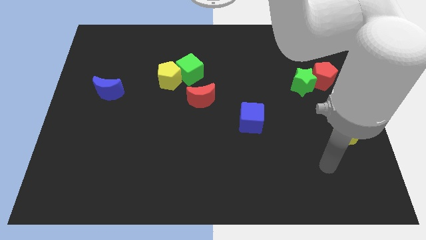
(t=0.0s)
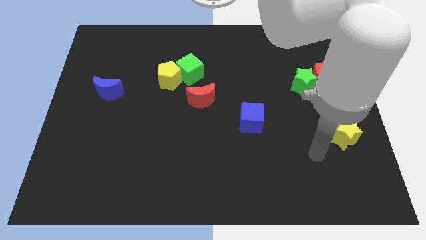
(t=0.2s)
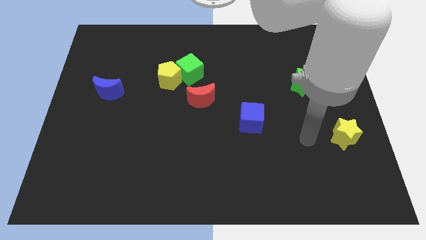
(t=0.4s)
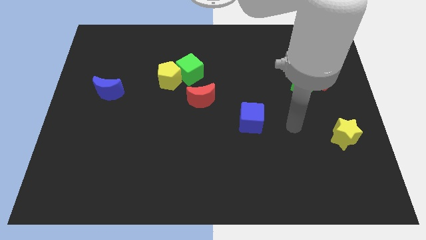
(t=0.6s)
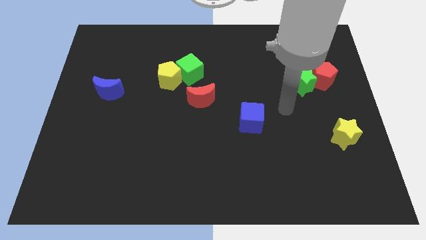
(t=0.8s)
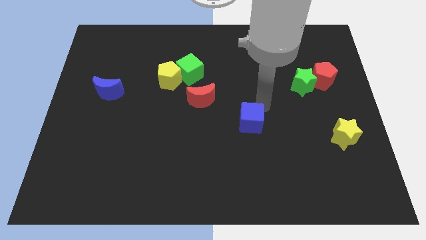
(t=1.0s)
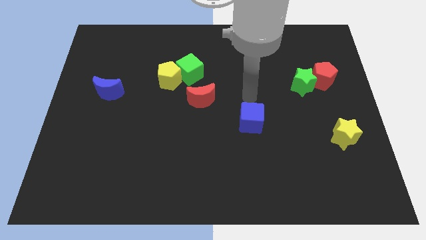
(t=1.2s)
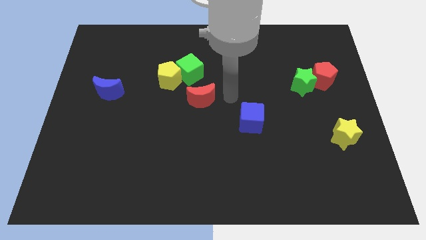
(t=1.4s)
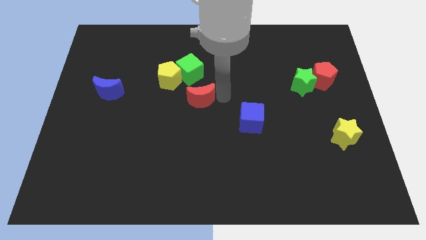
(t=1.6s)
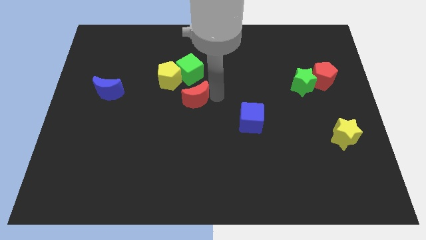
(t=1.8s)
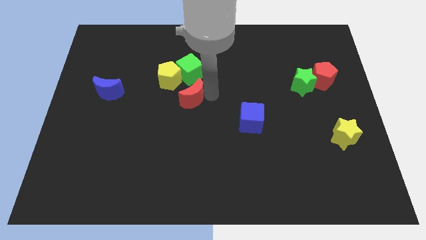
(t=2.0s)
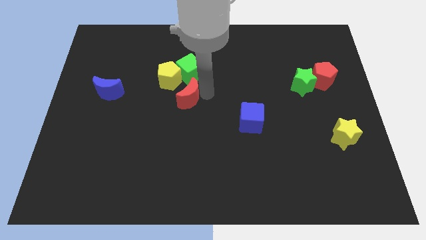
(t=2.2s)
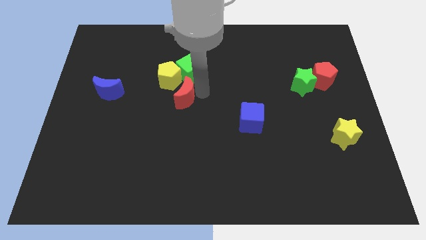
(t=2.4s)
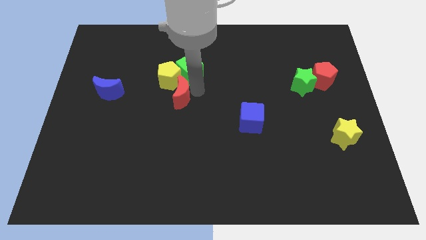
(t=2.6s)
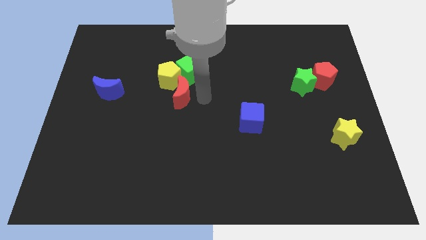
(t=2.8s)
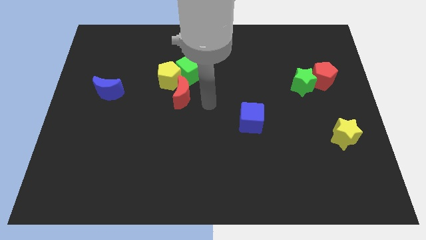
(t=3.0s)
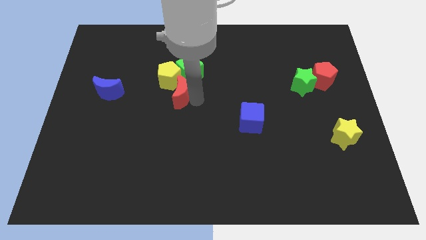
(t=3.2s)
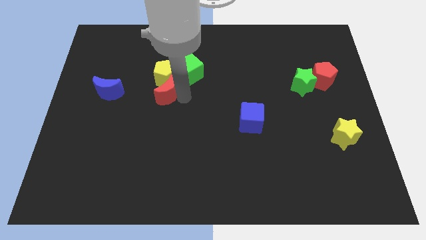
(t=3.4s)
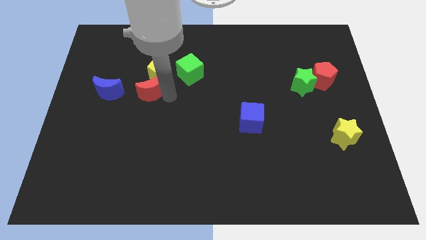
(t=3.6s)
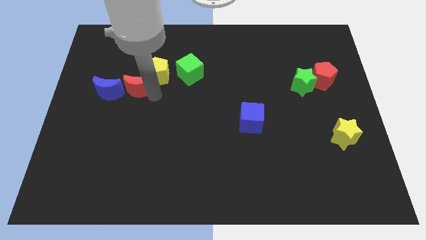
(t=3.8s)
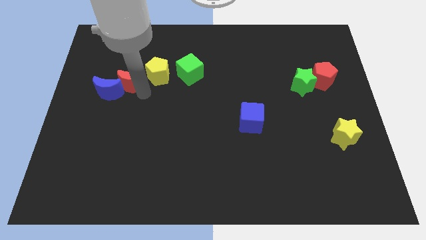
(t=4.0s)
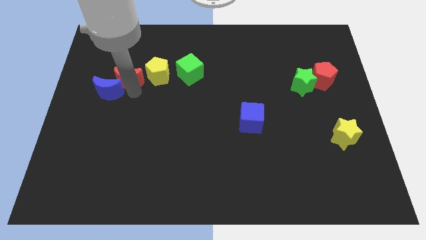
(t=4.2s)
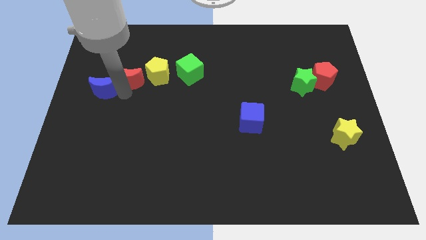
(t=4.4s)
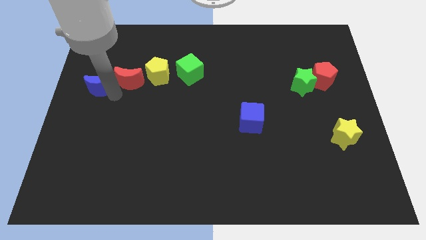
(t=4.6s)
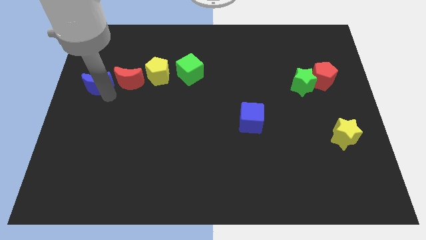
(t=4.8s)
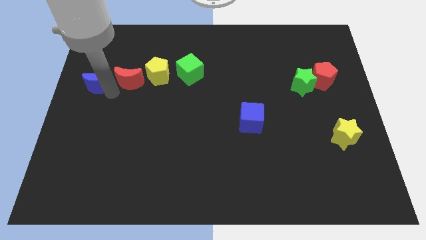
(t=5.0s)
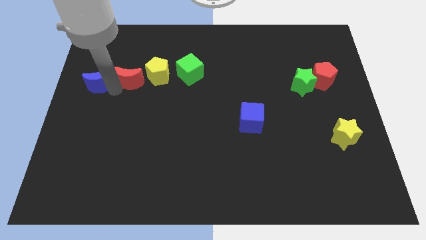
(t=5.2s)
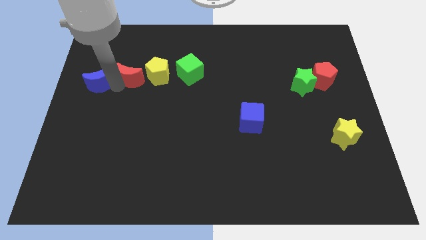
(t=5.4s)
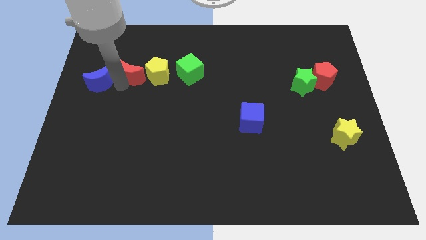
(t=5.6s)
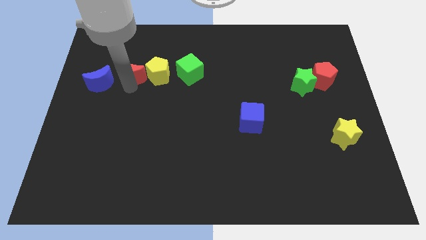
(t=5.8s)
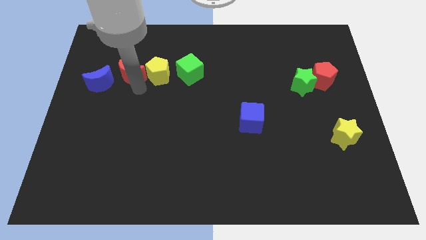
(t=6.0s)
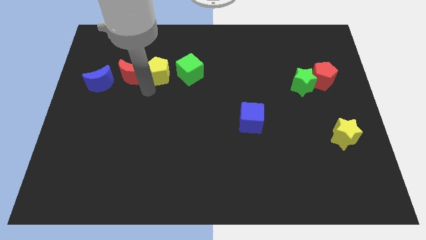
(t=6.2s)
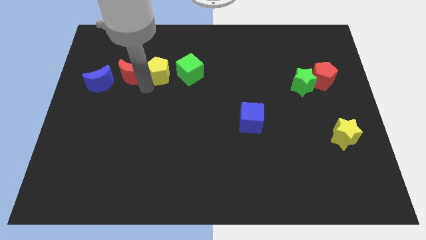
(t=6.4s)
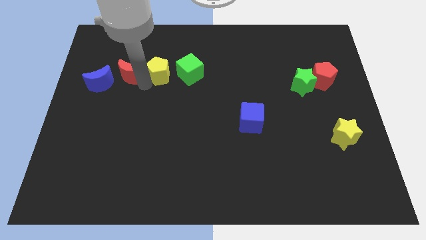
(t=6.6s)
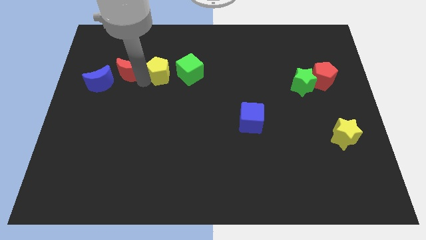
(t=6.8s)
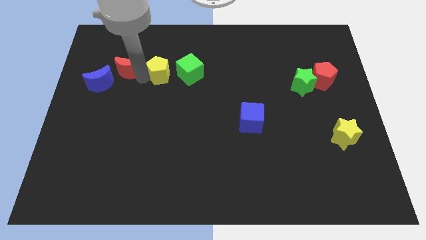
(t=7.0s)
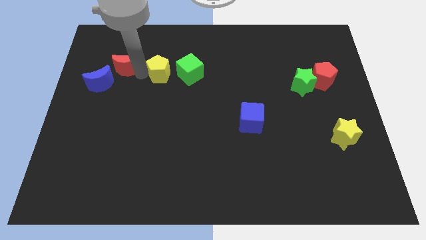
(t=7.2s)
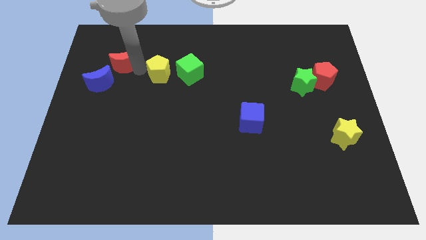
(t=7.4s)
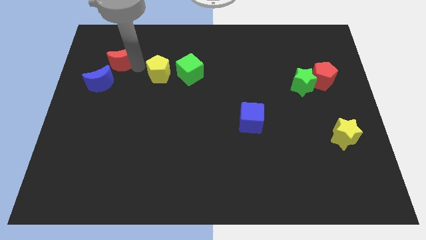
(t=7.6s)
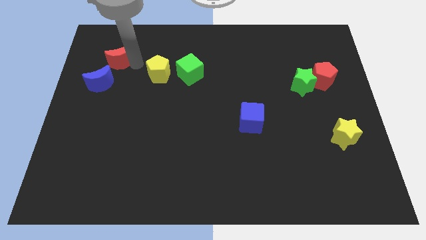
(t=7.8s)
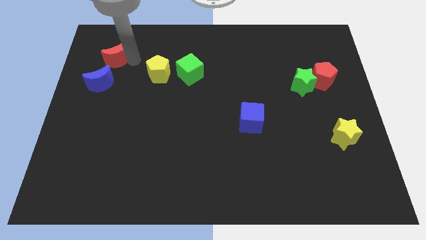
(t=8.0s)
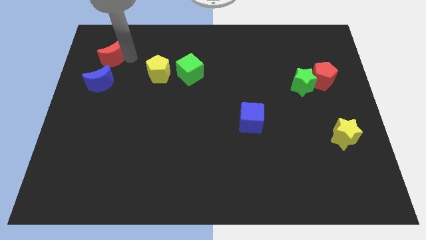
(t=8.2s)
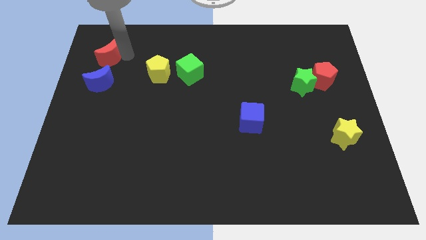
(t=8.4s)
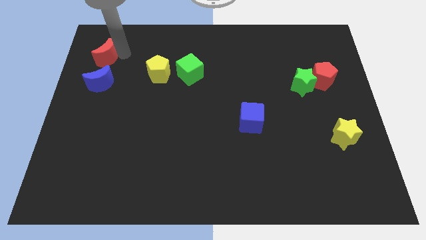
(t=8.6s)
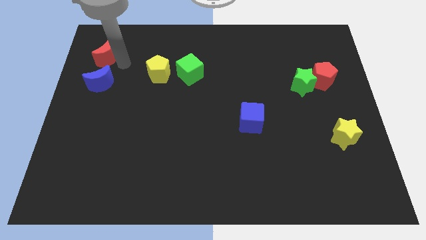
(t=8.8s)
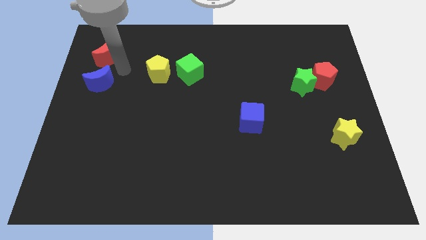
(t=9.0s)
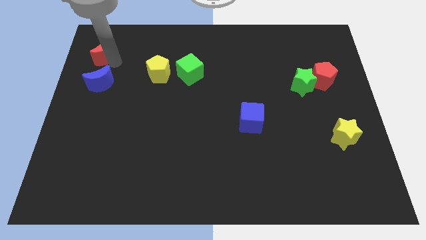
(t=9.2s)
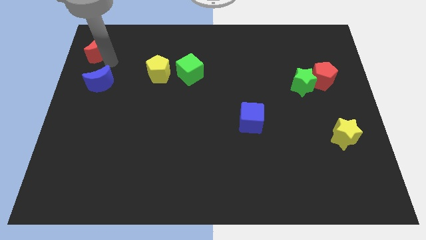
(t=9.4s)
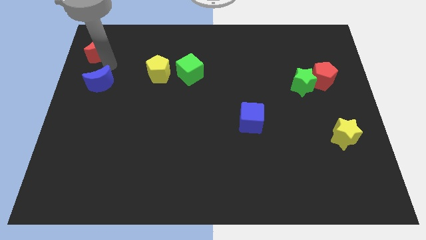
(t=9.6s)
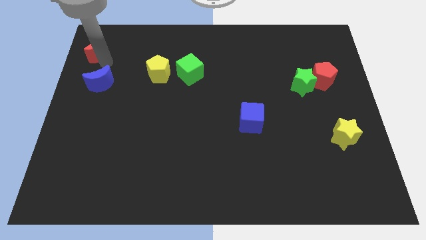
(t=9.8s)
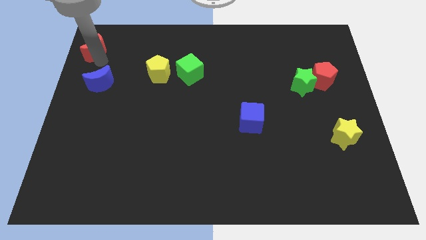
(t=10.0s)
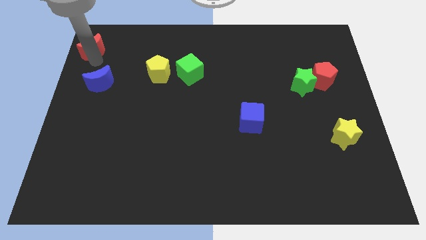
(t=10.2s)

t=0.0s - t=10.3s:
slide the red moon to the top left
